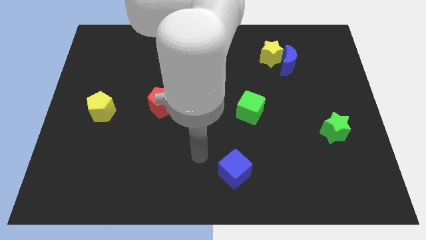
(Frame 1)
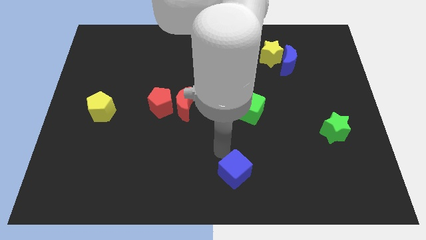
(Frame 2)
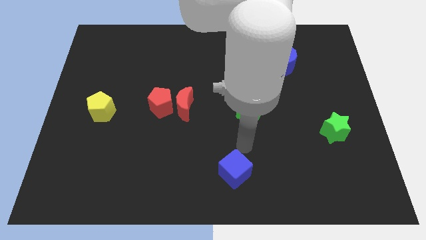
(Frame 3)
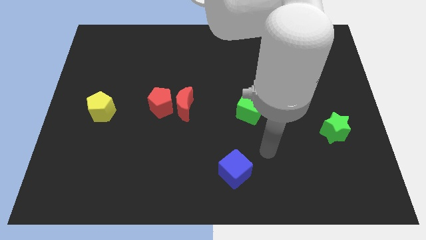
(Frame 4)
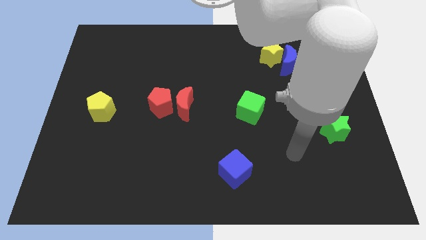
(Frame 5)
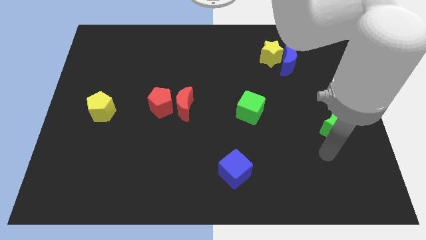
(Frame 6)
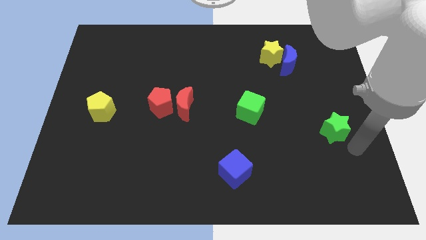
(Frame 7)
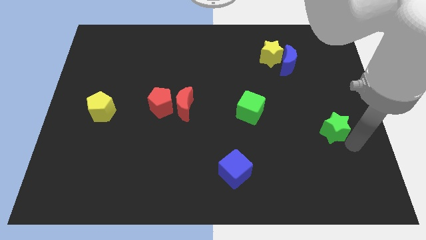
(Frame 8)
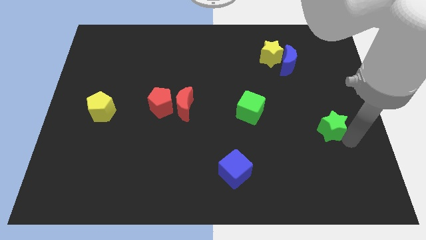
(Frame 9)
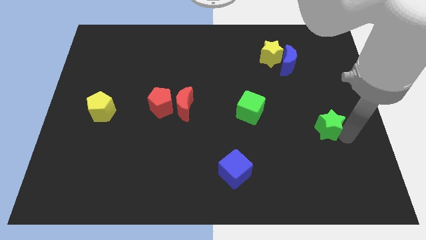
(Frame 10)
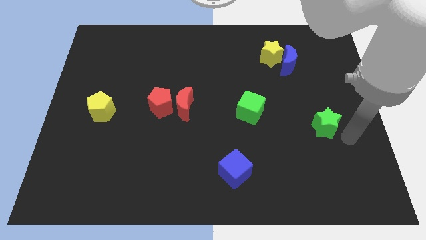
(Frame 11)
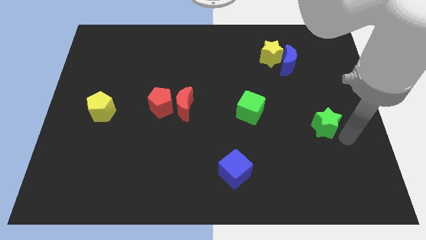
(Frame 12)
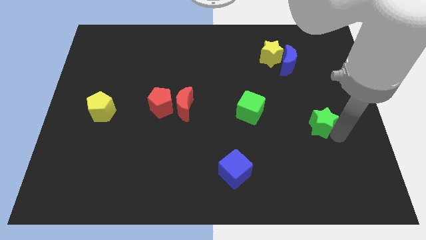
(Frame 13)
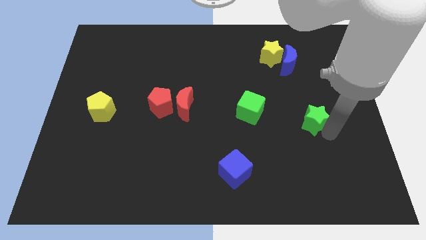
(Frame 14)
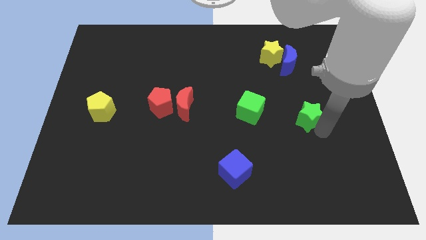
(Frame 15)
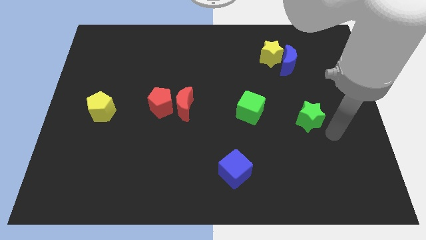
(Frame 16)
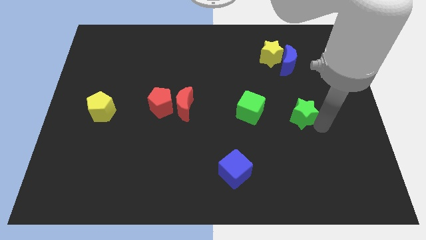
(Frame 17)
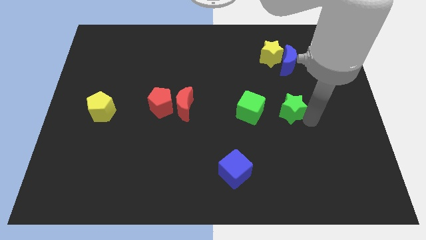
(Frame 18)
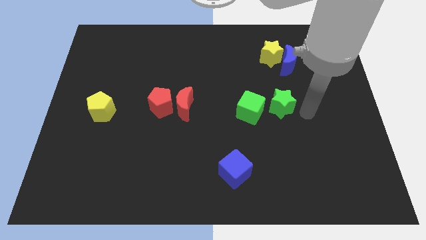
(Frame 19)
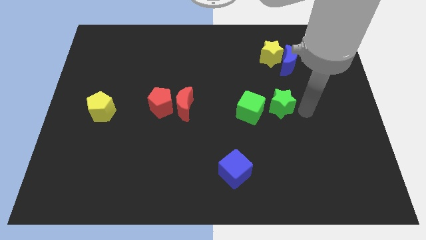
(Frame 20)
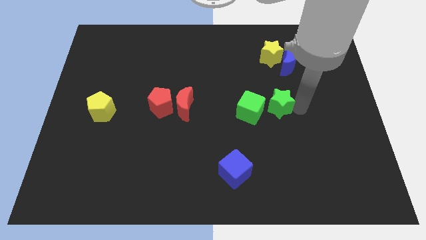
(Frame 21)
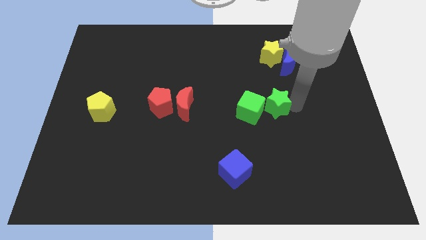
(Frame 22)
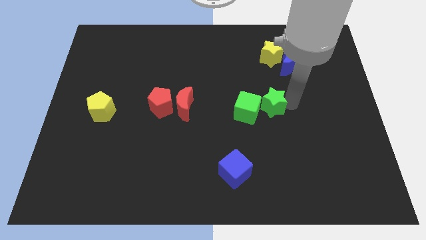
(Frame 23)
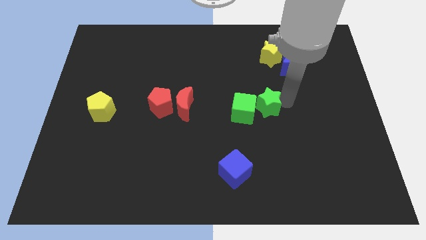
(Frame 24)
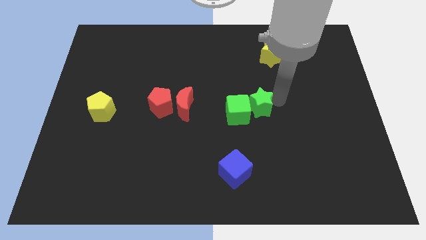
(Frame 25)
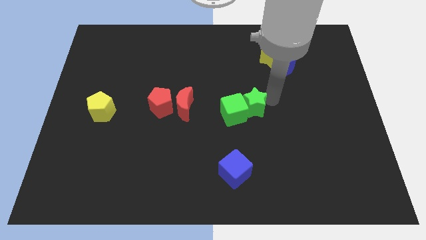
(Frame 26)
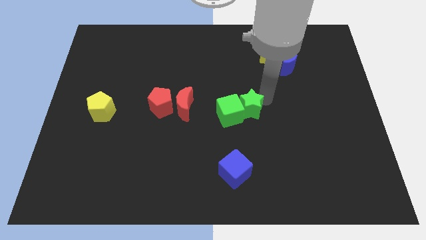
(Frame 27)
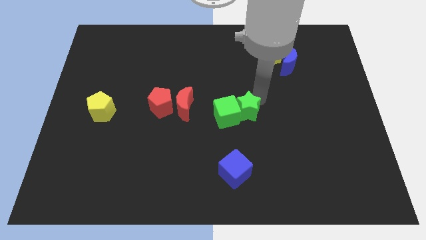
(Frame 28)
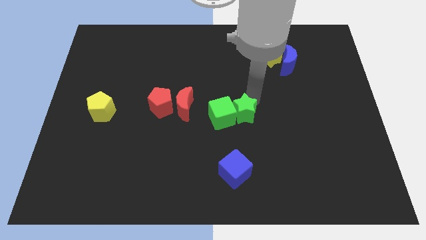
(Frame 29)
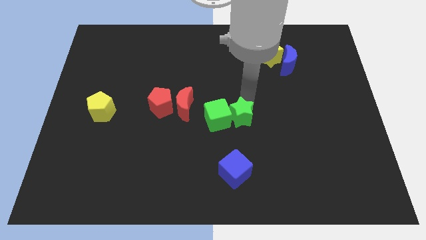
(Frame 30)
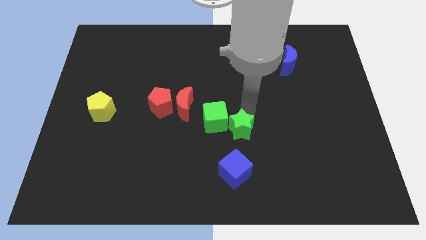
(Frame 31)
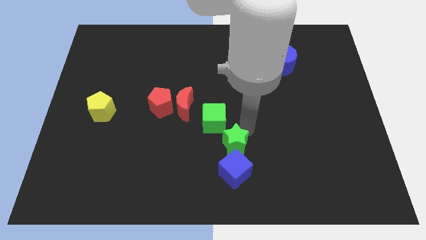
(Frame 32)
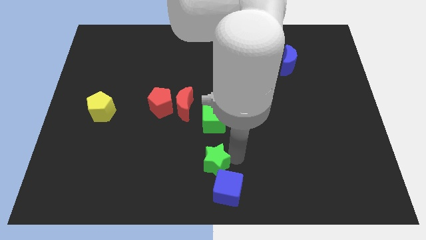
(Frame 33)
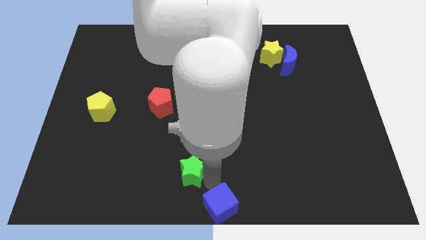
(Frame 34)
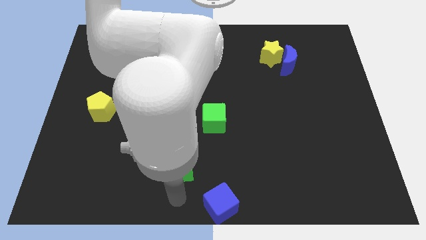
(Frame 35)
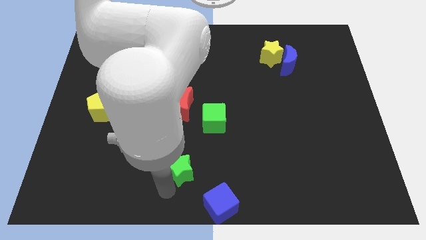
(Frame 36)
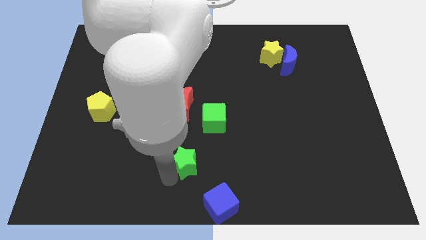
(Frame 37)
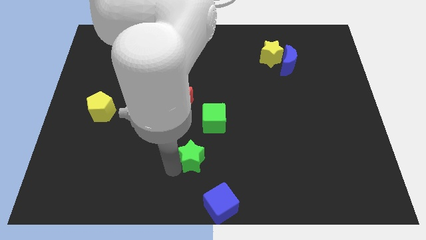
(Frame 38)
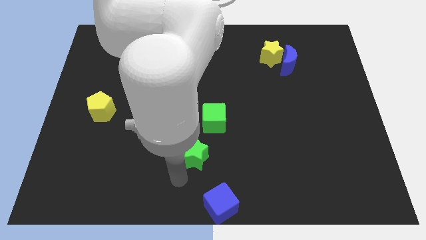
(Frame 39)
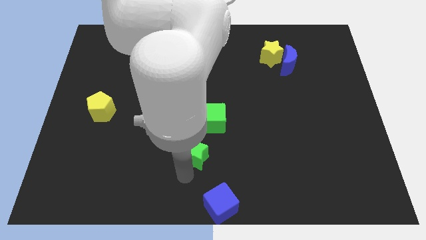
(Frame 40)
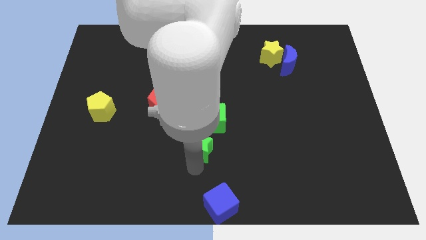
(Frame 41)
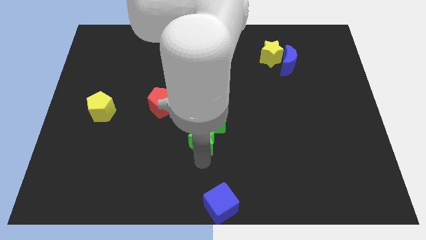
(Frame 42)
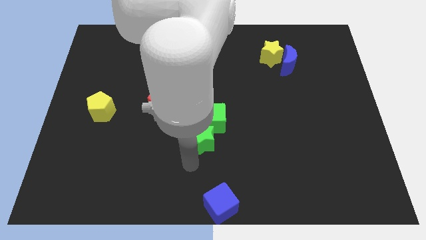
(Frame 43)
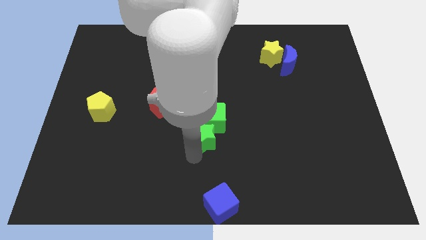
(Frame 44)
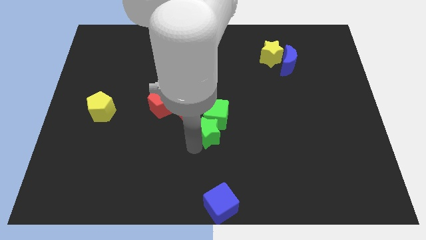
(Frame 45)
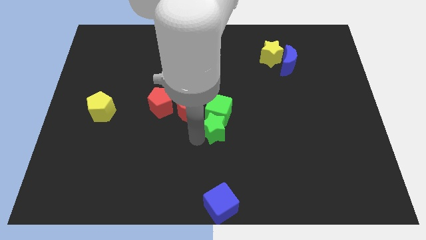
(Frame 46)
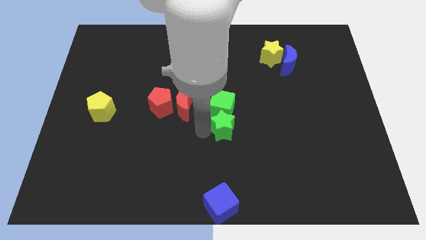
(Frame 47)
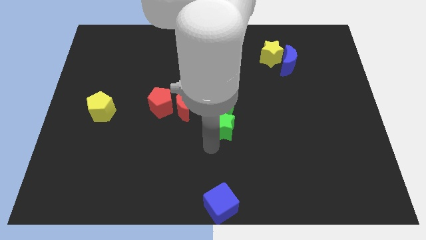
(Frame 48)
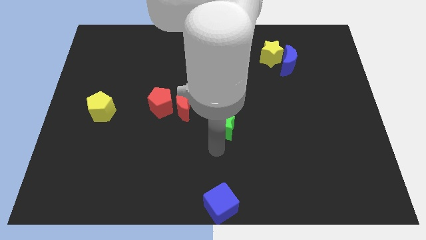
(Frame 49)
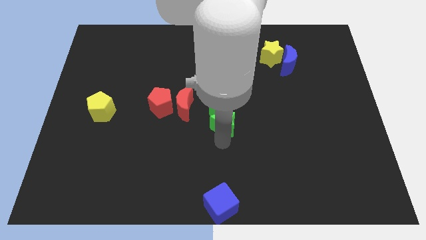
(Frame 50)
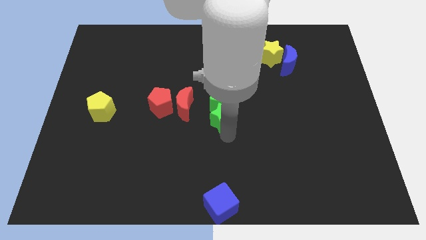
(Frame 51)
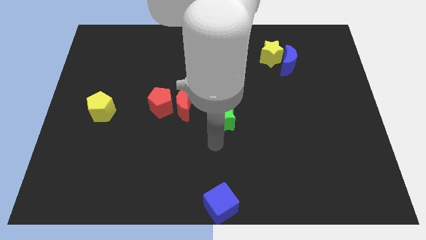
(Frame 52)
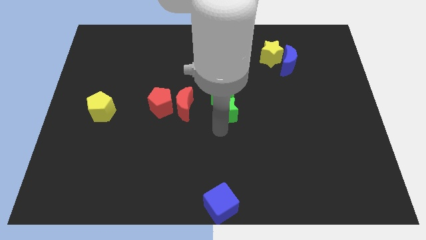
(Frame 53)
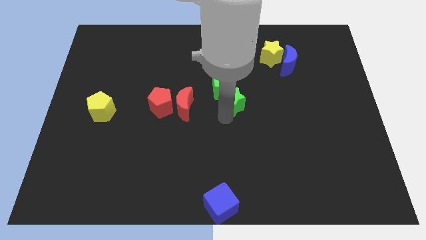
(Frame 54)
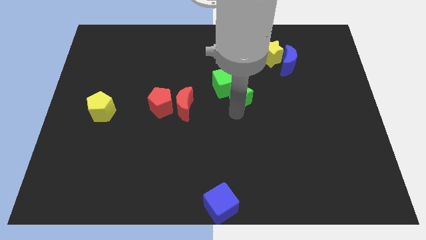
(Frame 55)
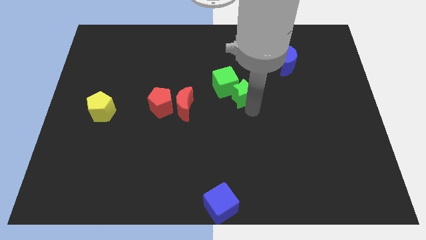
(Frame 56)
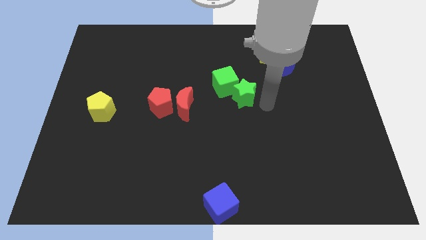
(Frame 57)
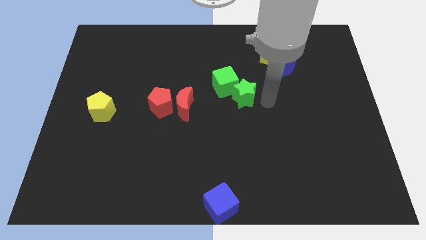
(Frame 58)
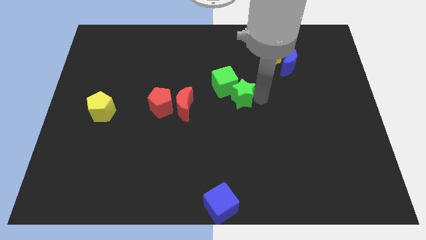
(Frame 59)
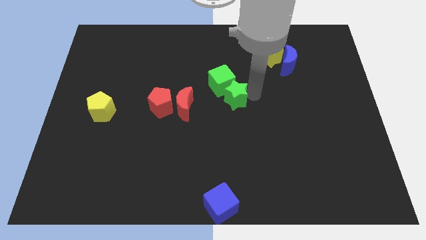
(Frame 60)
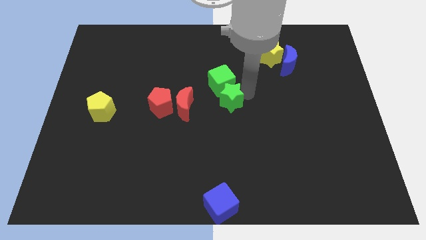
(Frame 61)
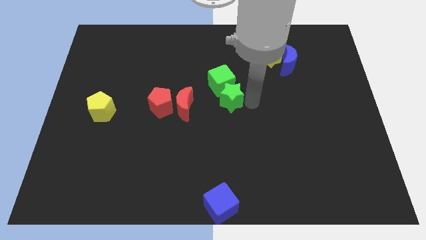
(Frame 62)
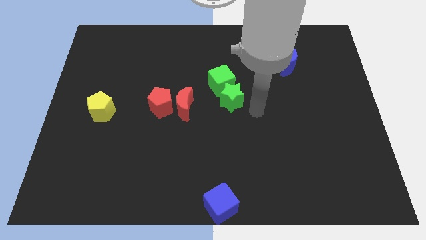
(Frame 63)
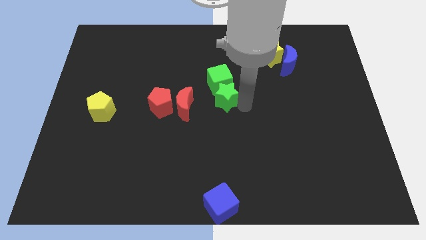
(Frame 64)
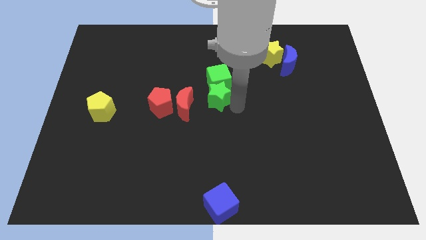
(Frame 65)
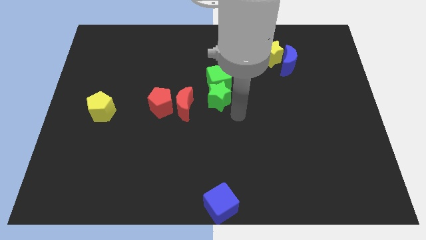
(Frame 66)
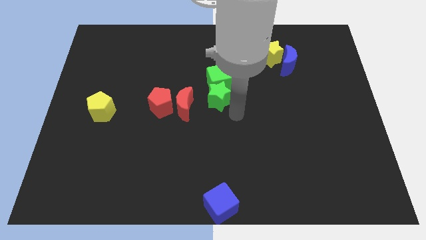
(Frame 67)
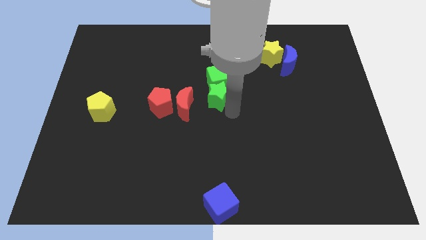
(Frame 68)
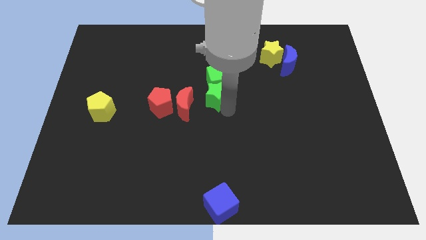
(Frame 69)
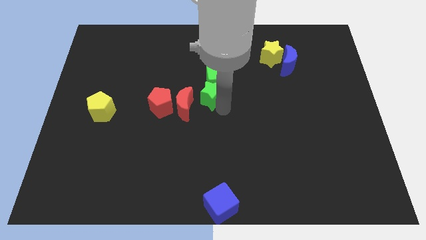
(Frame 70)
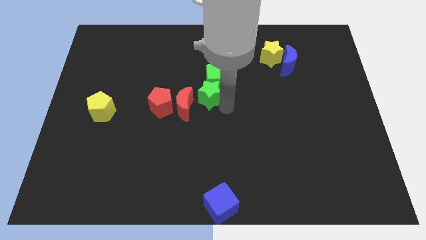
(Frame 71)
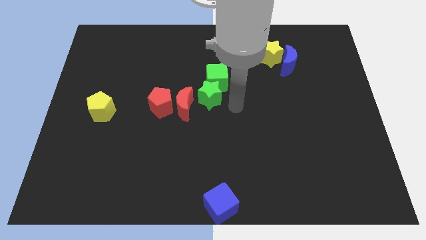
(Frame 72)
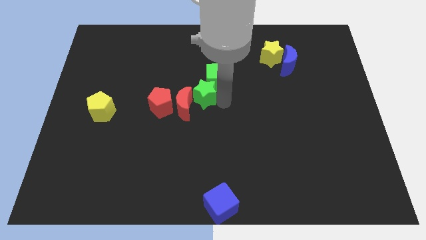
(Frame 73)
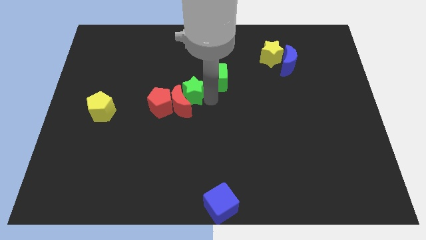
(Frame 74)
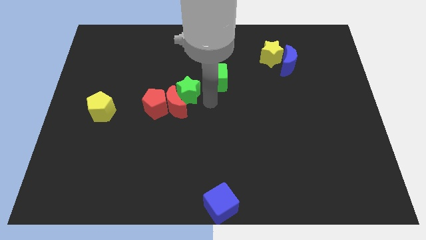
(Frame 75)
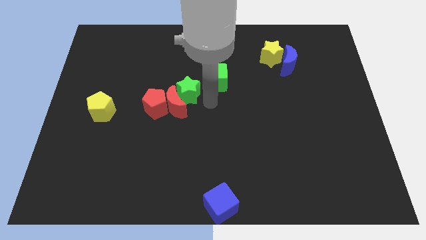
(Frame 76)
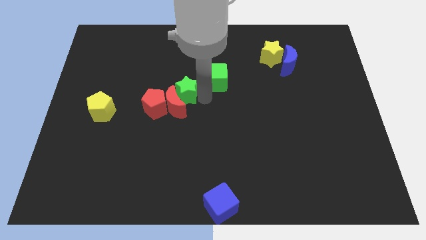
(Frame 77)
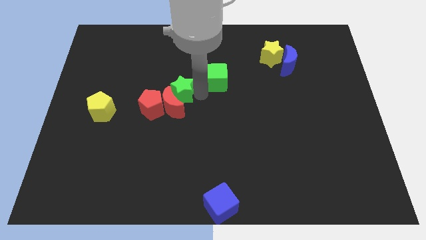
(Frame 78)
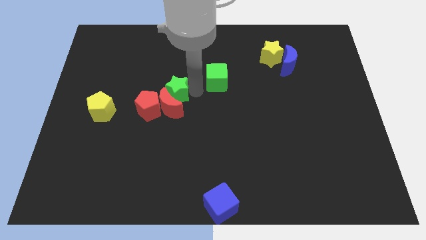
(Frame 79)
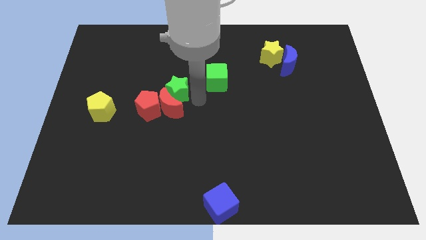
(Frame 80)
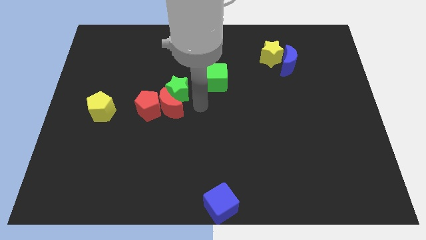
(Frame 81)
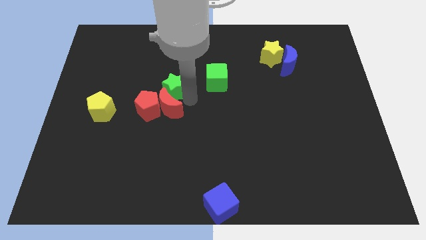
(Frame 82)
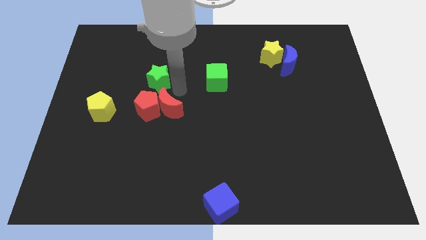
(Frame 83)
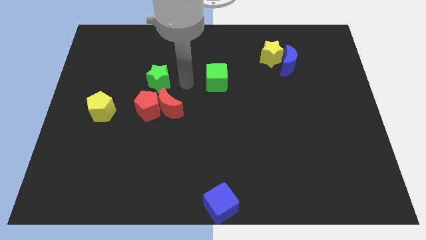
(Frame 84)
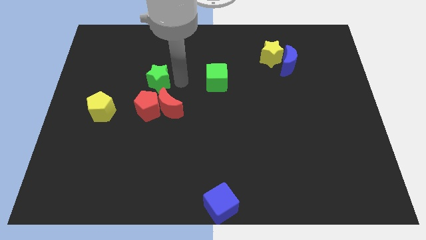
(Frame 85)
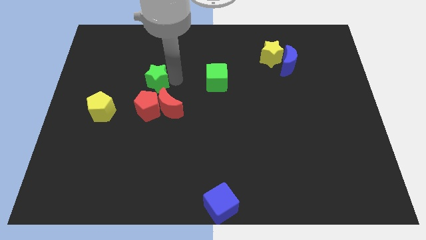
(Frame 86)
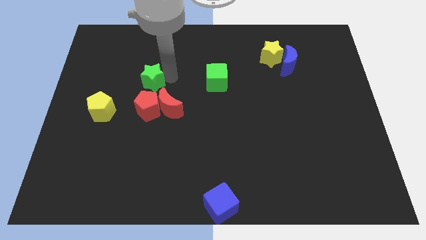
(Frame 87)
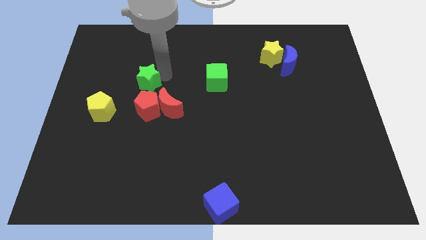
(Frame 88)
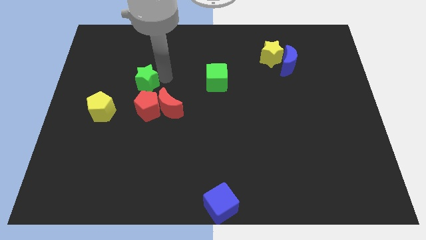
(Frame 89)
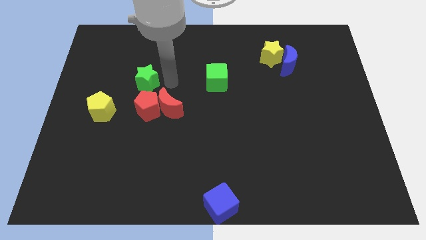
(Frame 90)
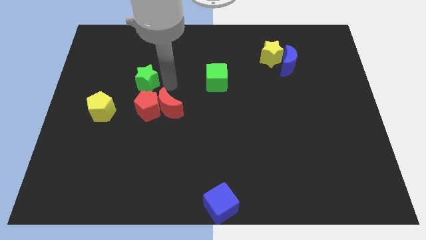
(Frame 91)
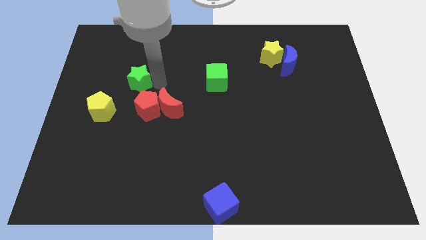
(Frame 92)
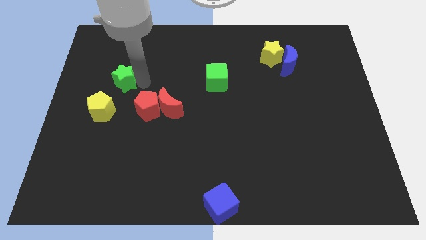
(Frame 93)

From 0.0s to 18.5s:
put the green star above the yellow pentagon
